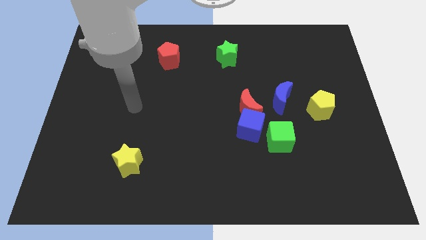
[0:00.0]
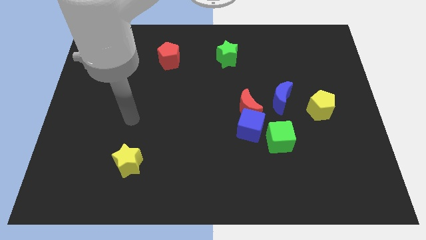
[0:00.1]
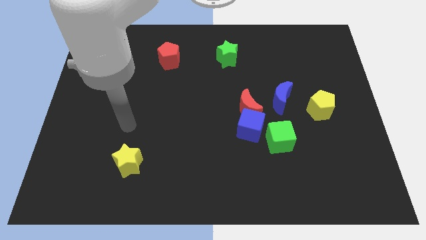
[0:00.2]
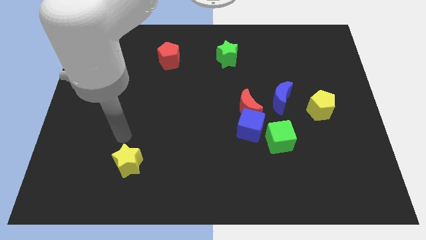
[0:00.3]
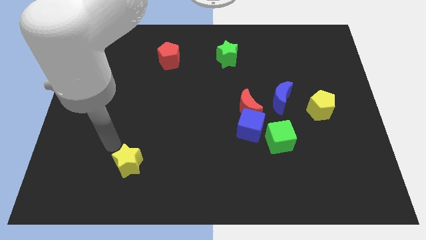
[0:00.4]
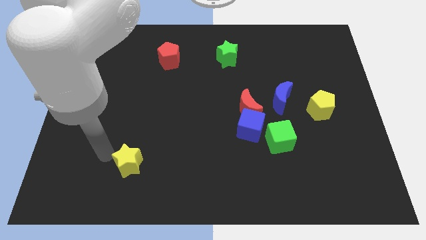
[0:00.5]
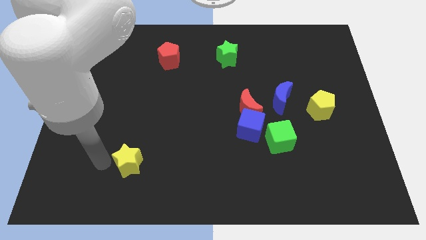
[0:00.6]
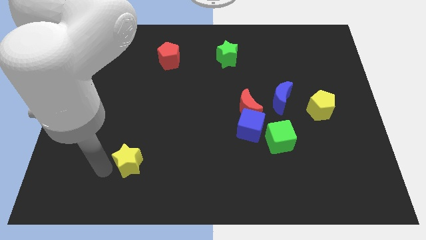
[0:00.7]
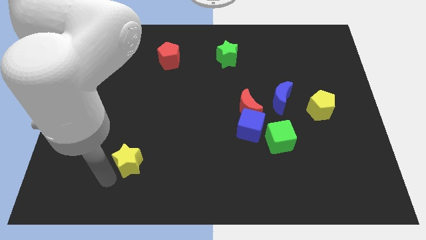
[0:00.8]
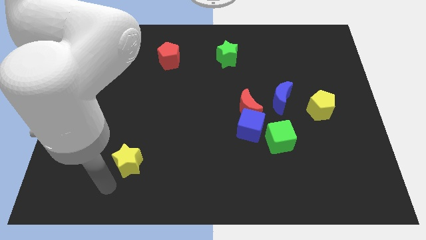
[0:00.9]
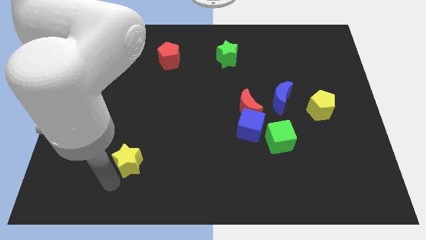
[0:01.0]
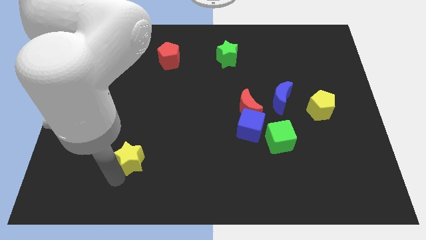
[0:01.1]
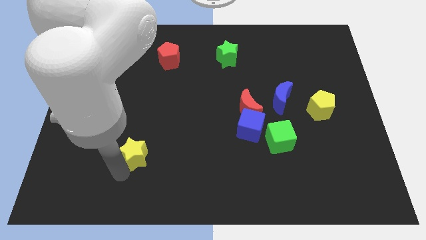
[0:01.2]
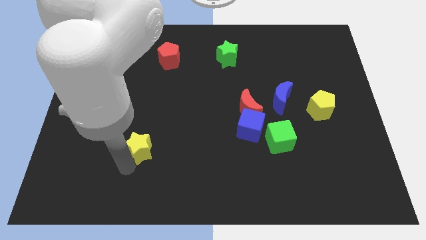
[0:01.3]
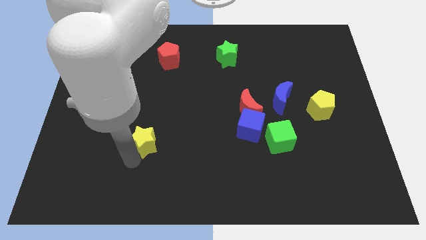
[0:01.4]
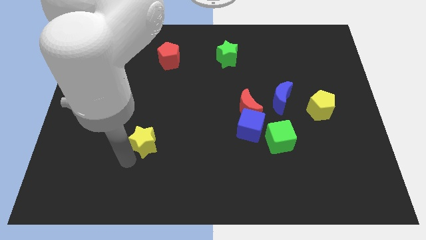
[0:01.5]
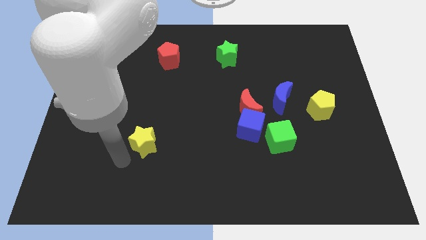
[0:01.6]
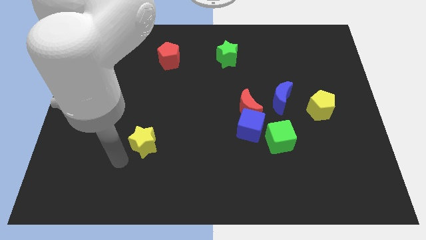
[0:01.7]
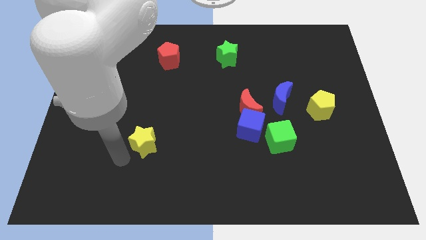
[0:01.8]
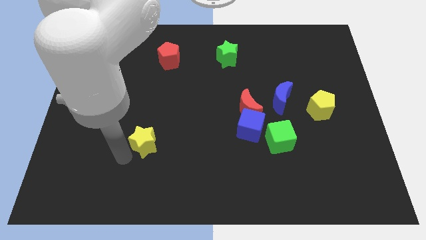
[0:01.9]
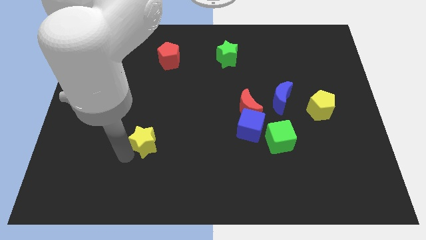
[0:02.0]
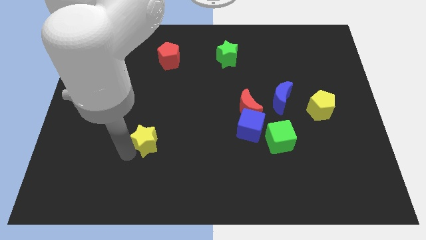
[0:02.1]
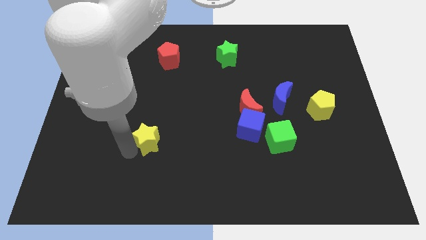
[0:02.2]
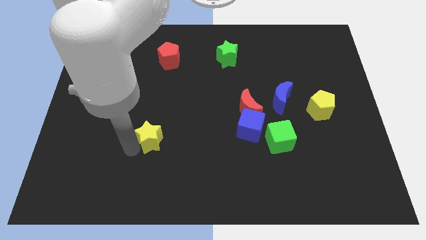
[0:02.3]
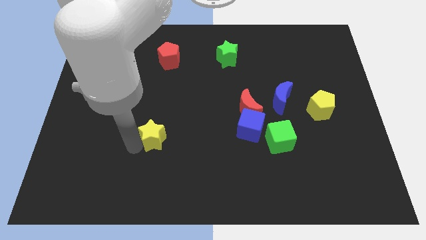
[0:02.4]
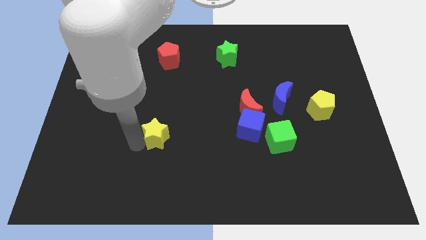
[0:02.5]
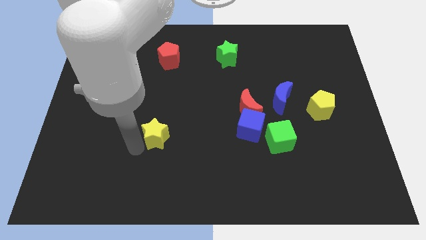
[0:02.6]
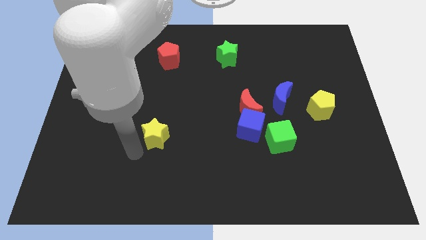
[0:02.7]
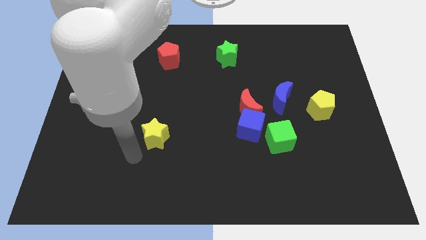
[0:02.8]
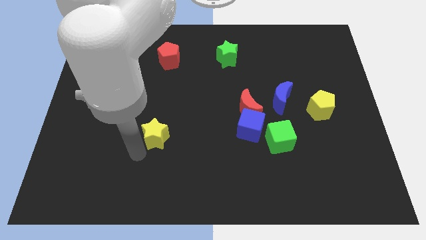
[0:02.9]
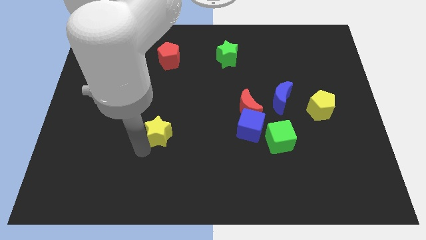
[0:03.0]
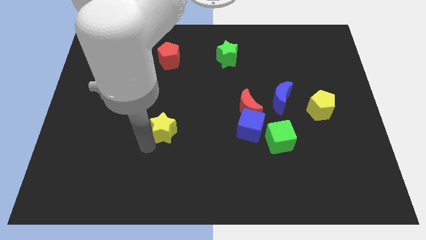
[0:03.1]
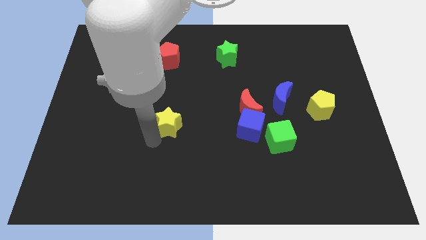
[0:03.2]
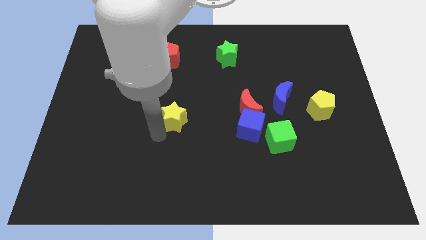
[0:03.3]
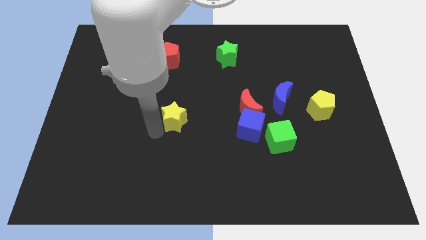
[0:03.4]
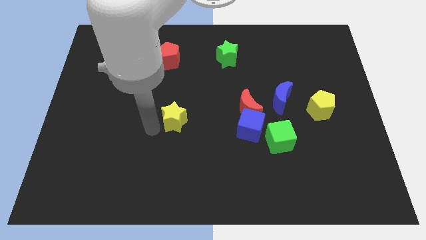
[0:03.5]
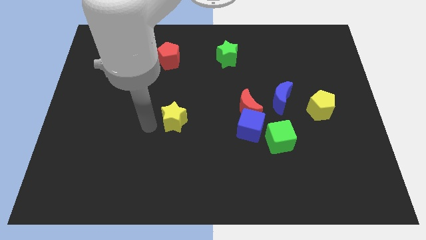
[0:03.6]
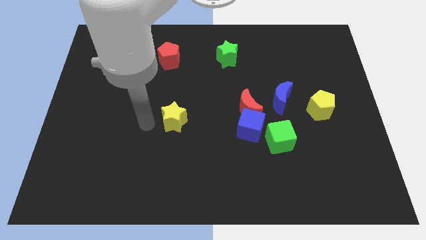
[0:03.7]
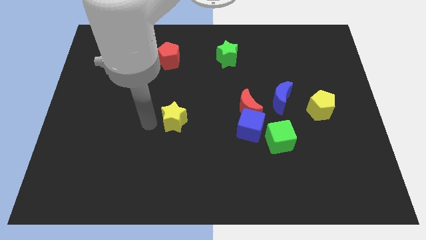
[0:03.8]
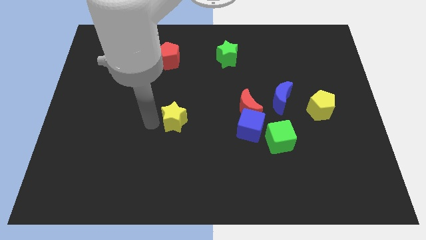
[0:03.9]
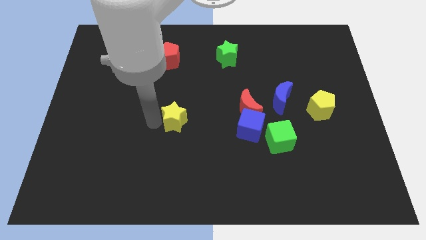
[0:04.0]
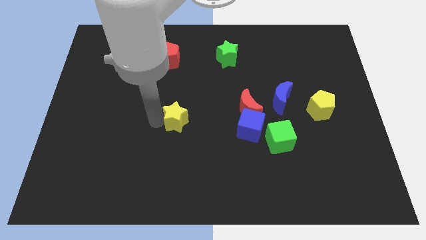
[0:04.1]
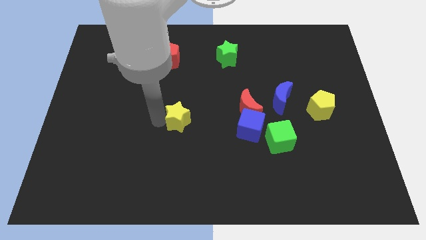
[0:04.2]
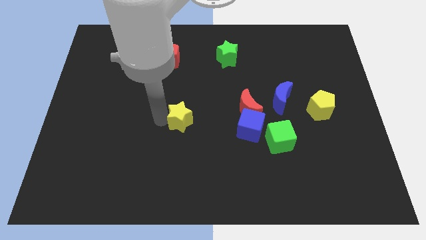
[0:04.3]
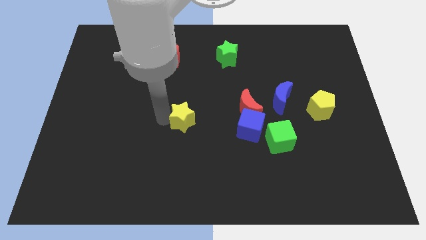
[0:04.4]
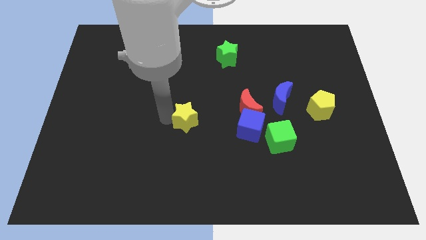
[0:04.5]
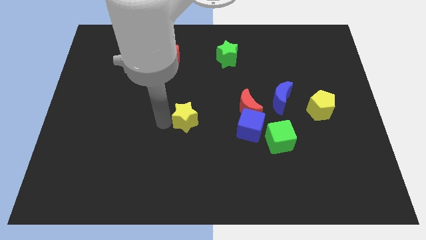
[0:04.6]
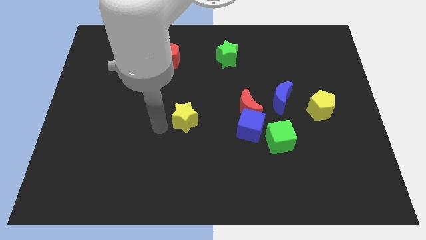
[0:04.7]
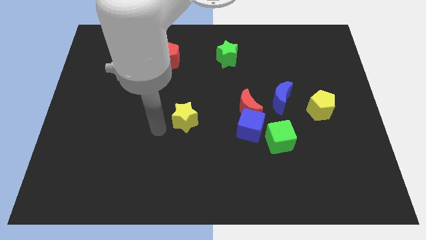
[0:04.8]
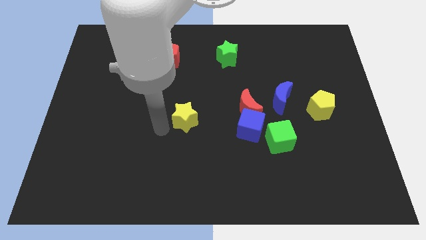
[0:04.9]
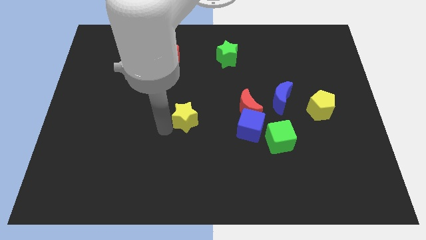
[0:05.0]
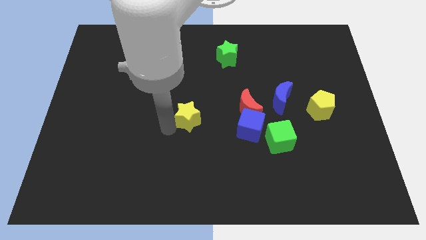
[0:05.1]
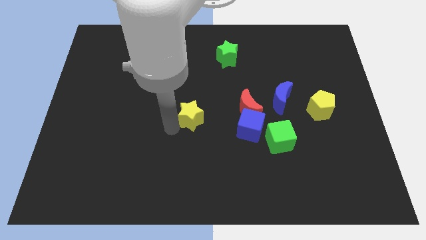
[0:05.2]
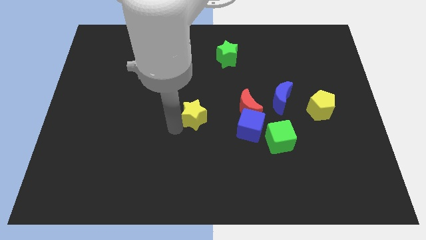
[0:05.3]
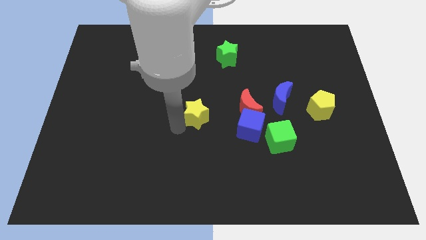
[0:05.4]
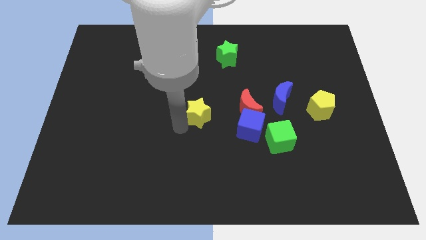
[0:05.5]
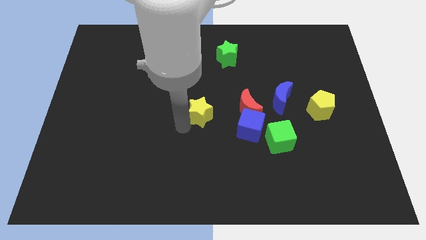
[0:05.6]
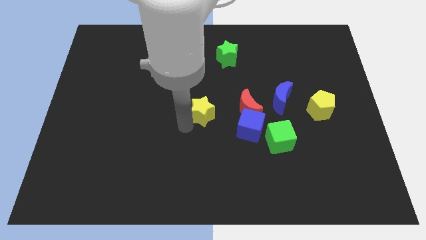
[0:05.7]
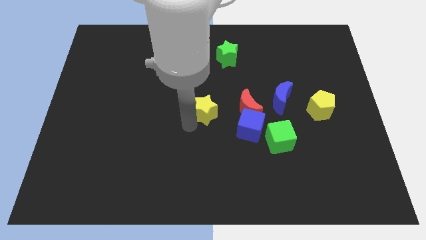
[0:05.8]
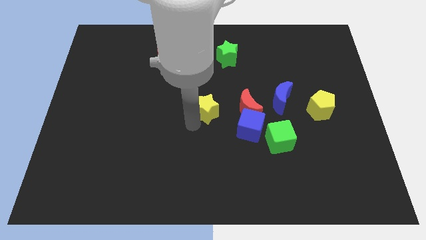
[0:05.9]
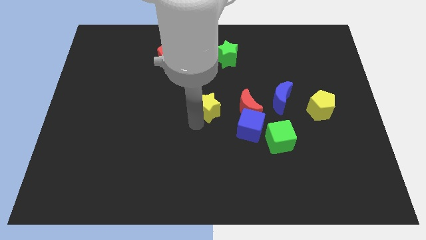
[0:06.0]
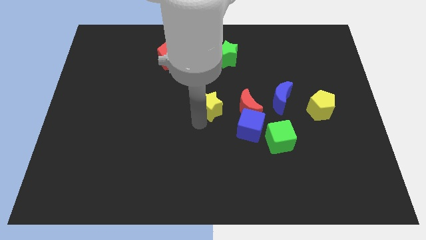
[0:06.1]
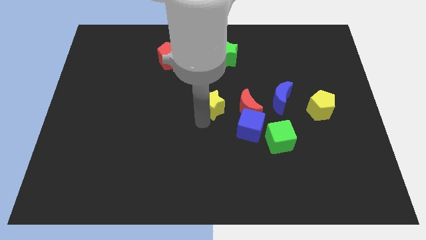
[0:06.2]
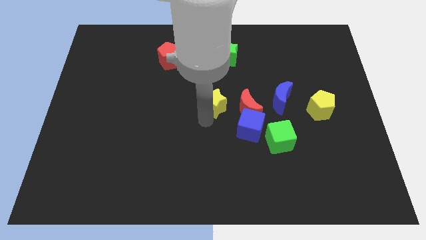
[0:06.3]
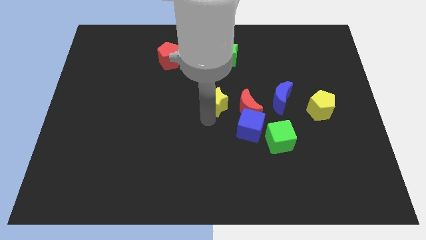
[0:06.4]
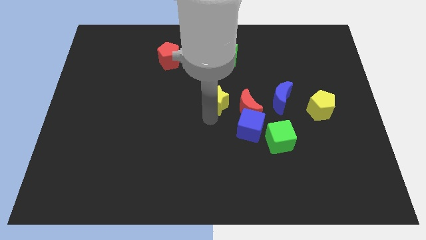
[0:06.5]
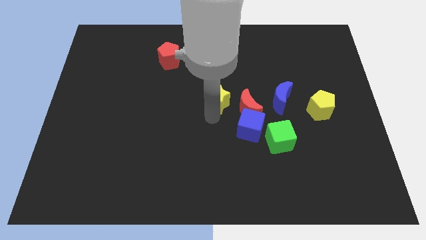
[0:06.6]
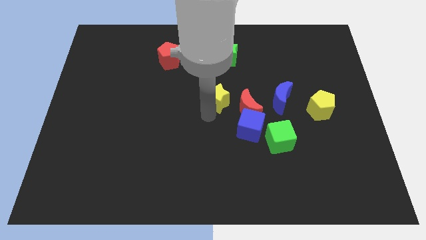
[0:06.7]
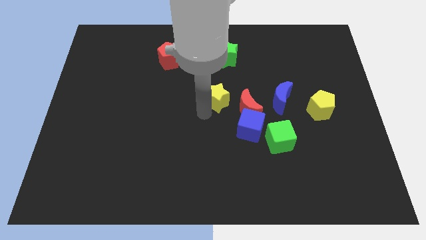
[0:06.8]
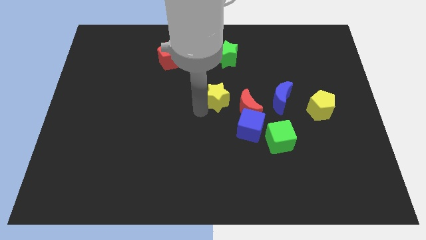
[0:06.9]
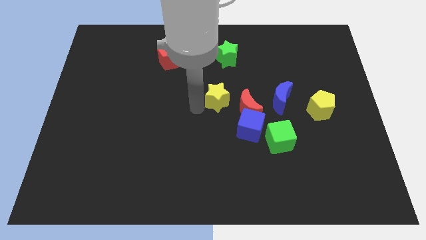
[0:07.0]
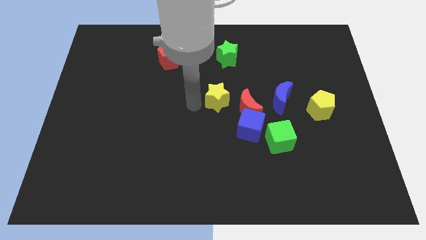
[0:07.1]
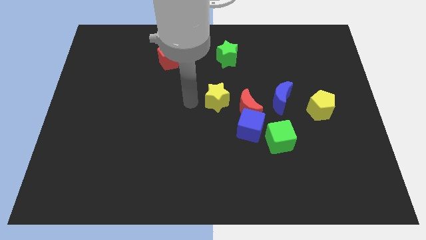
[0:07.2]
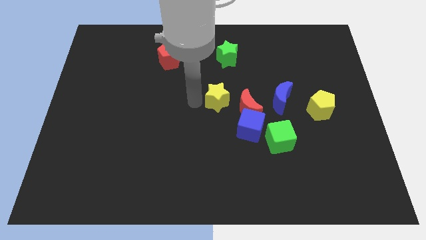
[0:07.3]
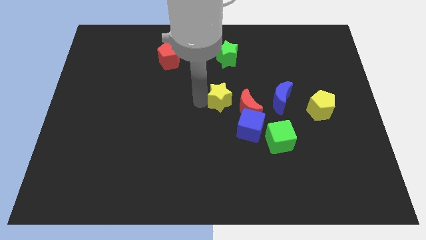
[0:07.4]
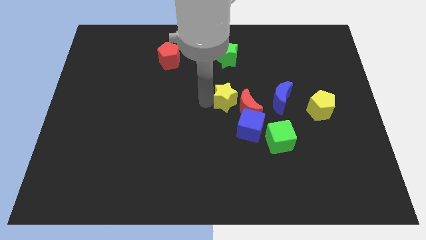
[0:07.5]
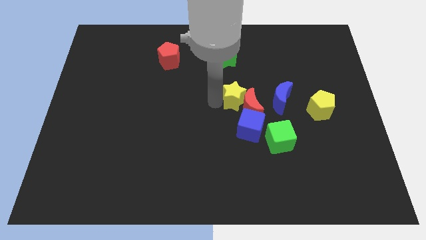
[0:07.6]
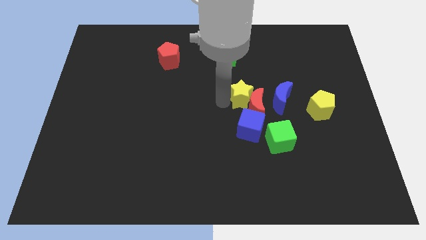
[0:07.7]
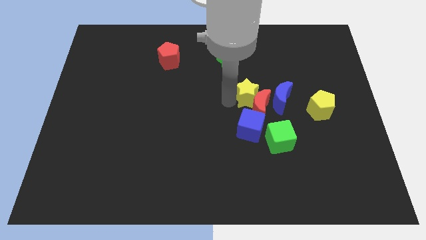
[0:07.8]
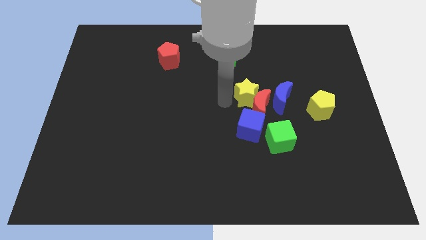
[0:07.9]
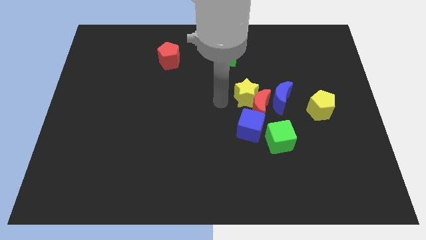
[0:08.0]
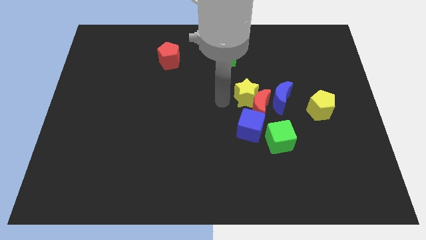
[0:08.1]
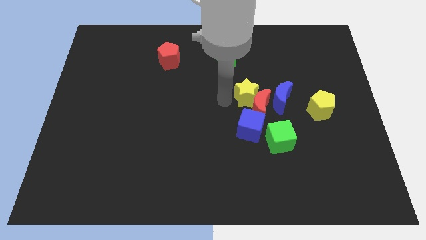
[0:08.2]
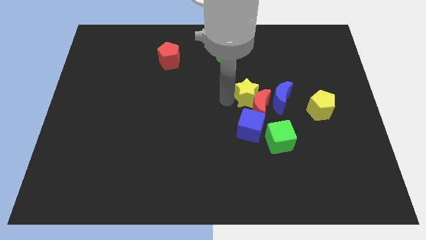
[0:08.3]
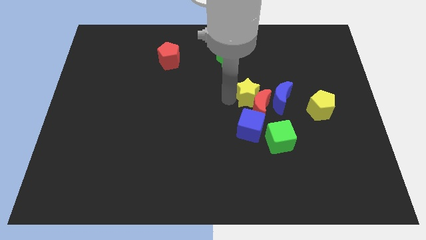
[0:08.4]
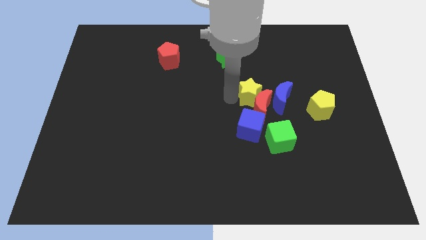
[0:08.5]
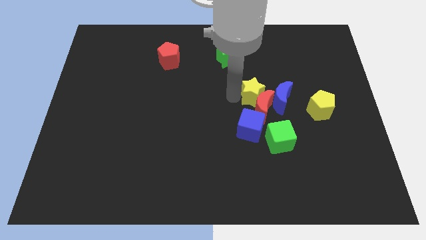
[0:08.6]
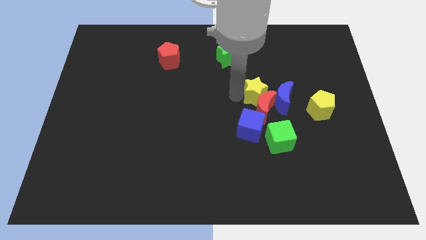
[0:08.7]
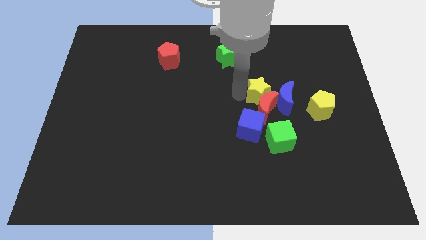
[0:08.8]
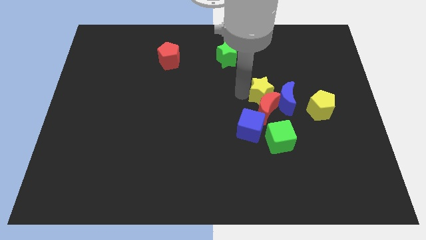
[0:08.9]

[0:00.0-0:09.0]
move the yellow star close to the blue moon
